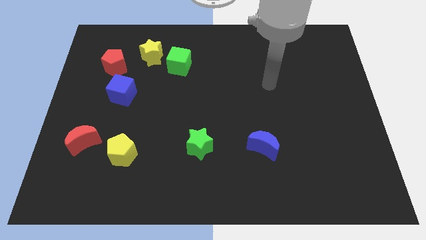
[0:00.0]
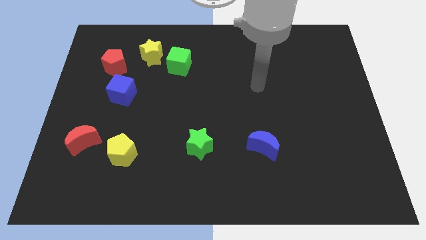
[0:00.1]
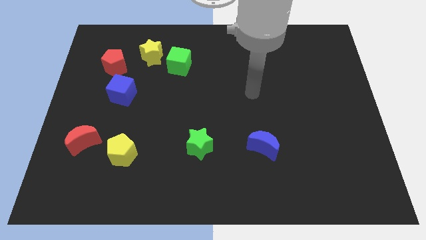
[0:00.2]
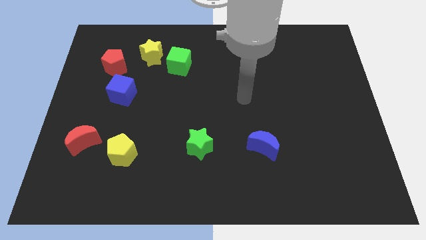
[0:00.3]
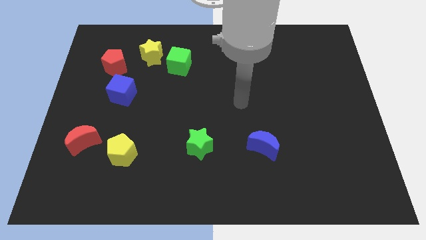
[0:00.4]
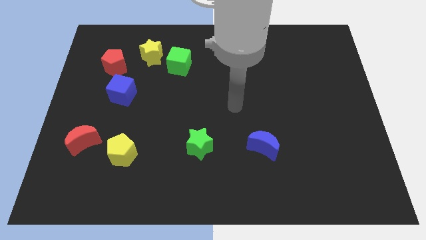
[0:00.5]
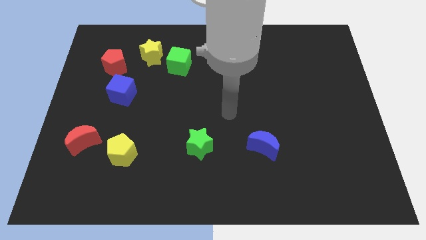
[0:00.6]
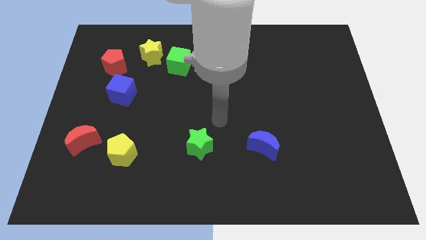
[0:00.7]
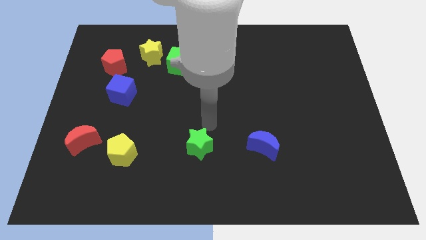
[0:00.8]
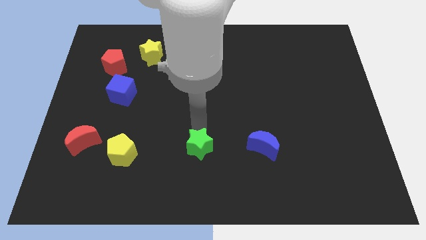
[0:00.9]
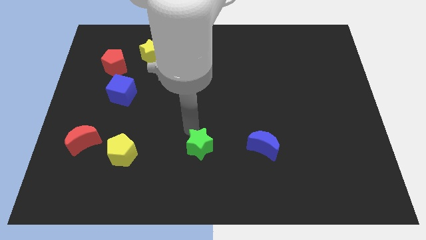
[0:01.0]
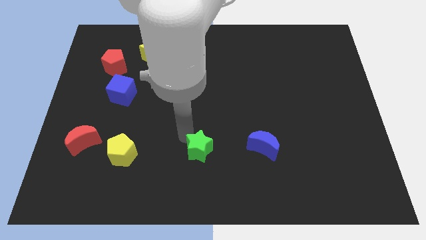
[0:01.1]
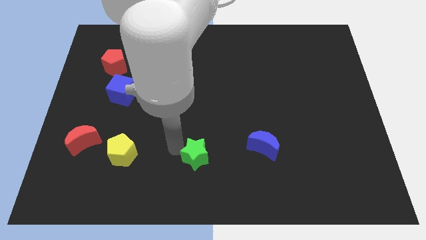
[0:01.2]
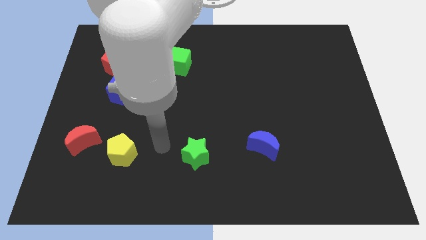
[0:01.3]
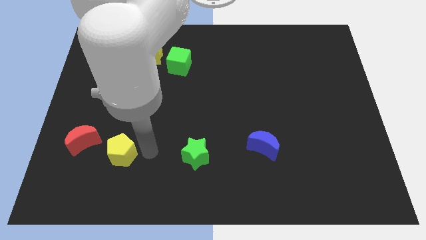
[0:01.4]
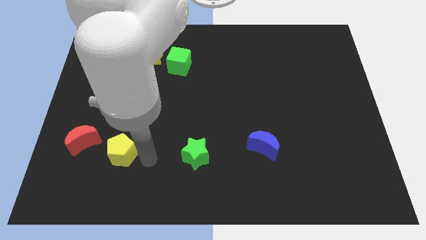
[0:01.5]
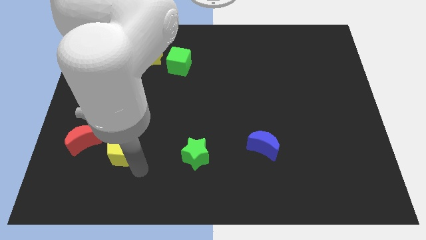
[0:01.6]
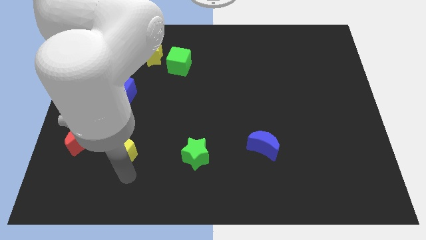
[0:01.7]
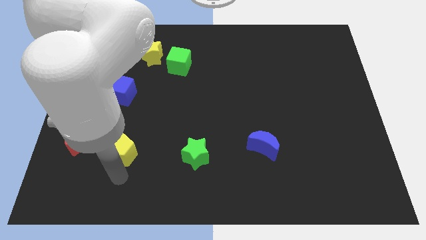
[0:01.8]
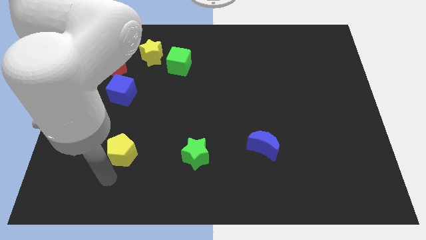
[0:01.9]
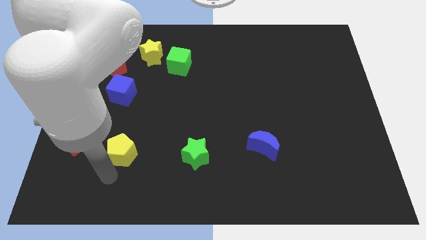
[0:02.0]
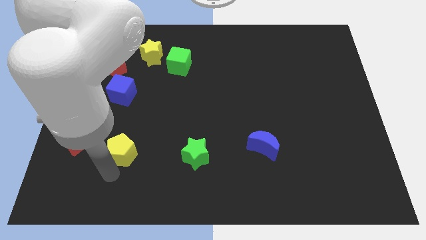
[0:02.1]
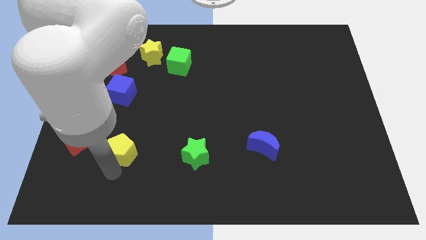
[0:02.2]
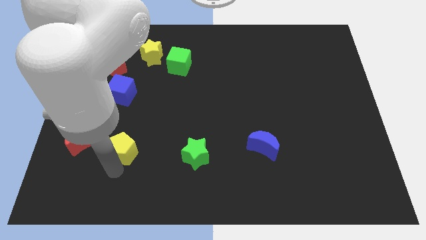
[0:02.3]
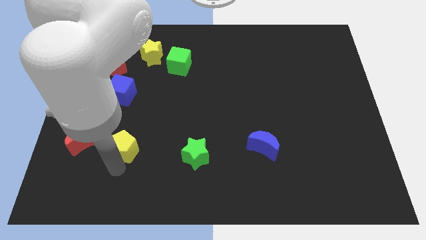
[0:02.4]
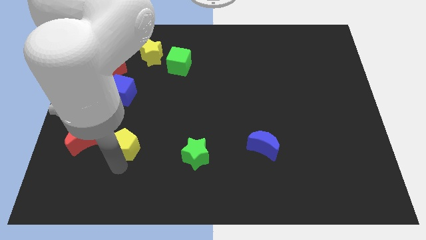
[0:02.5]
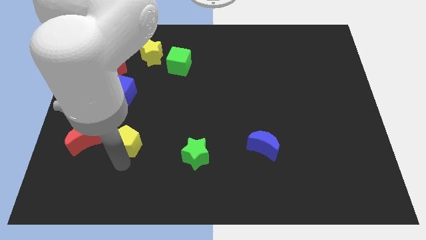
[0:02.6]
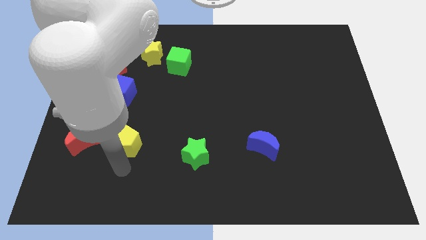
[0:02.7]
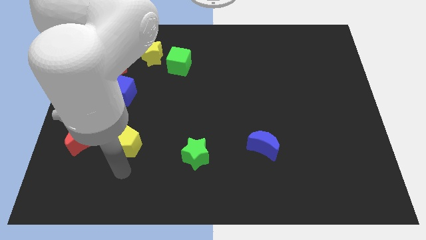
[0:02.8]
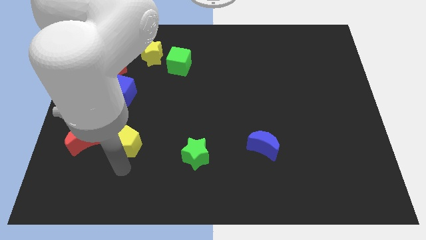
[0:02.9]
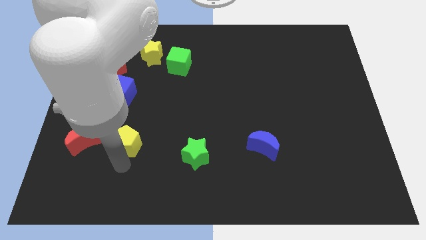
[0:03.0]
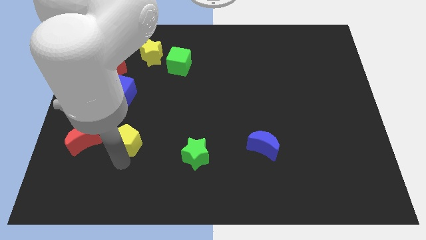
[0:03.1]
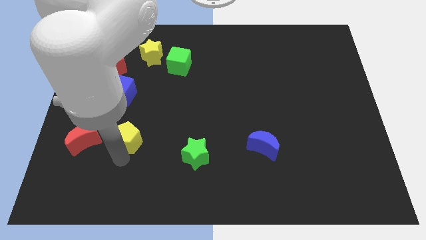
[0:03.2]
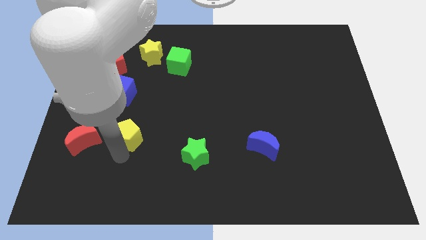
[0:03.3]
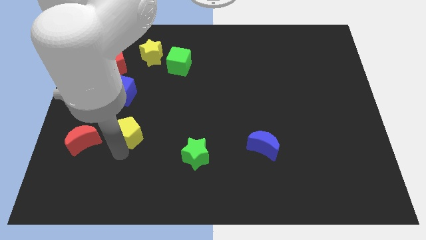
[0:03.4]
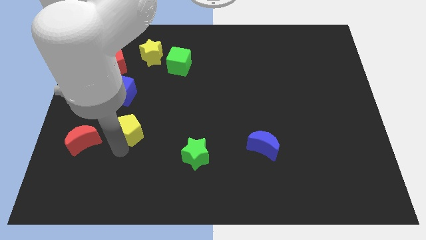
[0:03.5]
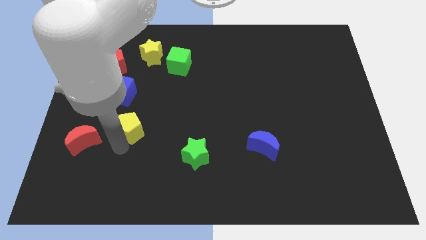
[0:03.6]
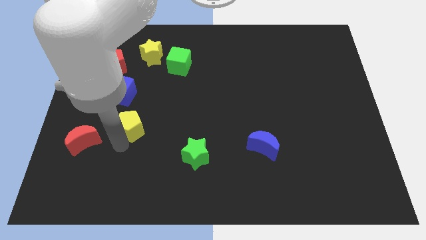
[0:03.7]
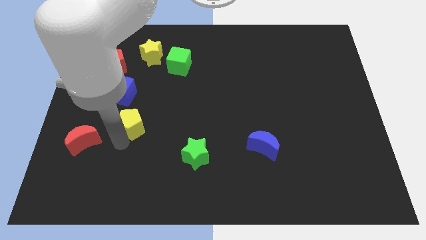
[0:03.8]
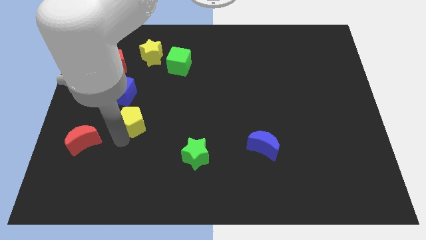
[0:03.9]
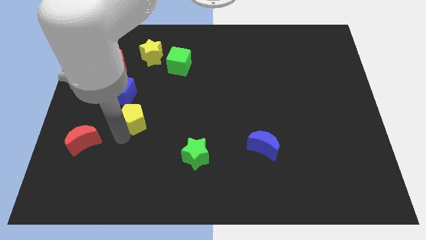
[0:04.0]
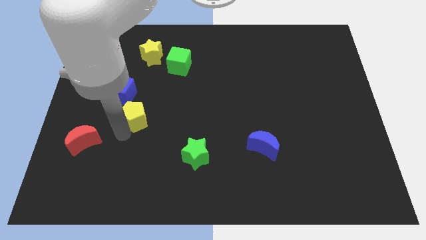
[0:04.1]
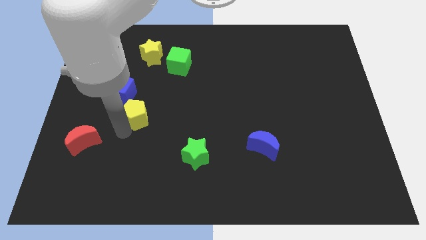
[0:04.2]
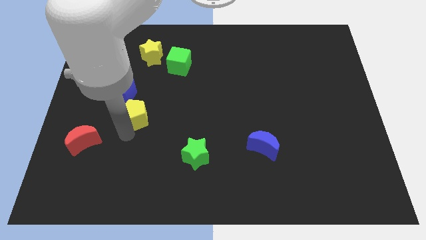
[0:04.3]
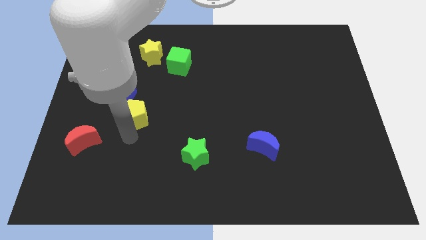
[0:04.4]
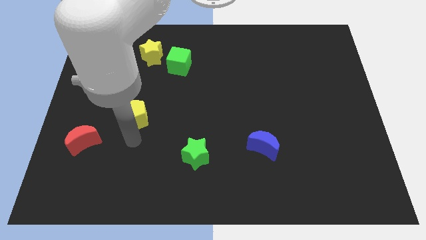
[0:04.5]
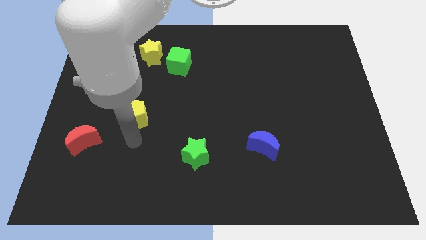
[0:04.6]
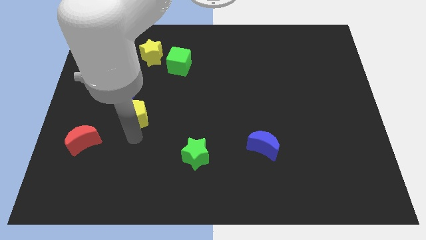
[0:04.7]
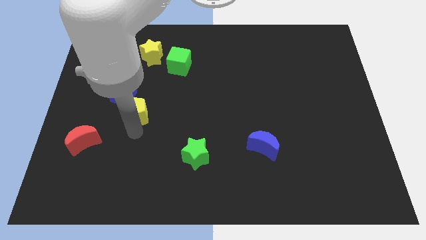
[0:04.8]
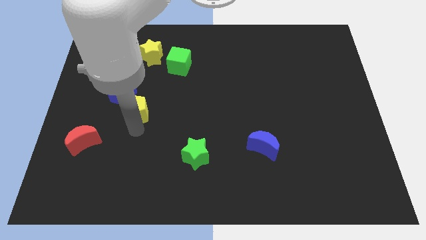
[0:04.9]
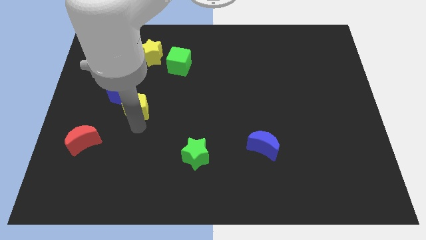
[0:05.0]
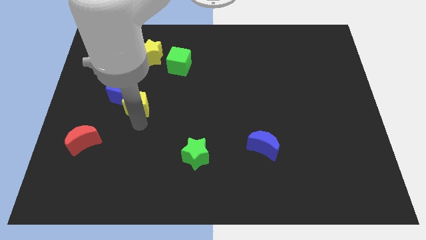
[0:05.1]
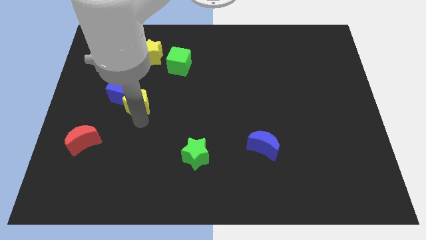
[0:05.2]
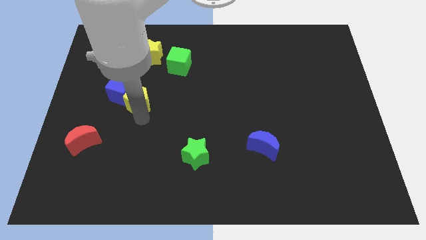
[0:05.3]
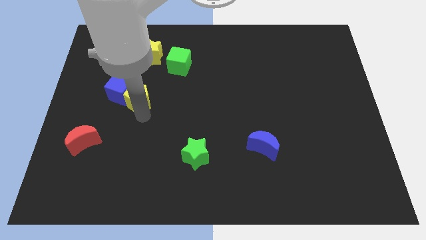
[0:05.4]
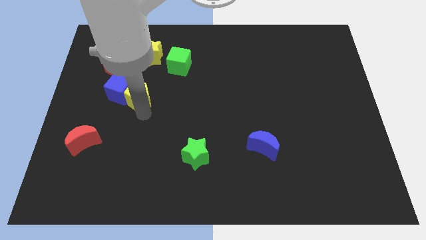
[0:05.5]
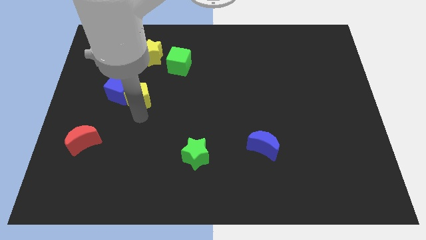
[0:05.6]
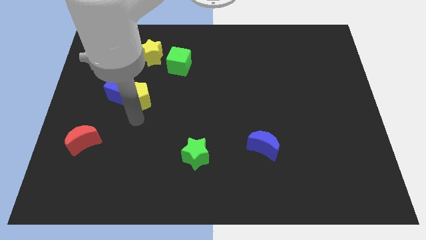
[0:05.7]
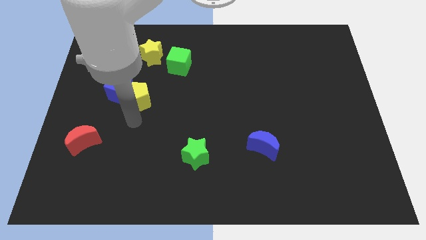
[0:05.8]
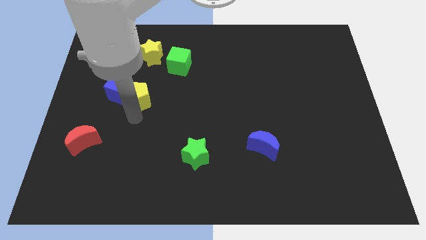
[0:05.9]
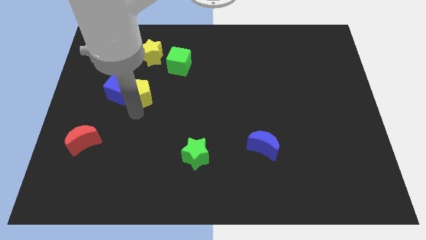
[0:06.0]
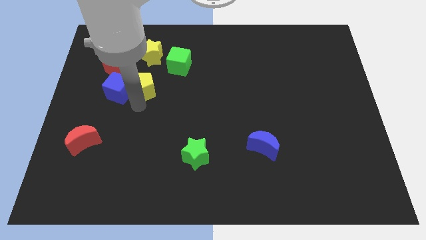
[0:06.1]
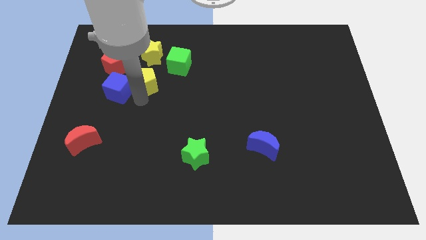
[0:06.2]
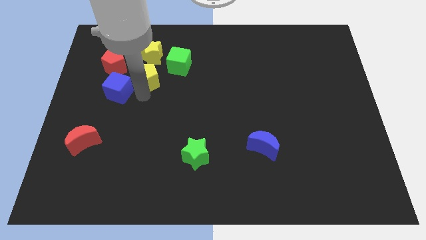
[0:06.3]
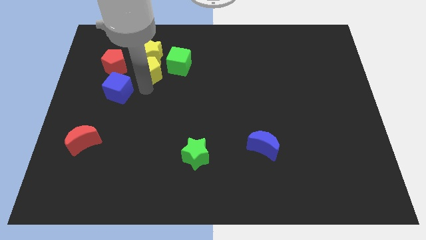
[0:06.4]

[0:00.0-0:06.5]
push the yellow pentagon towards the yellow star

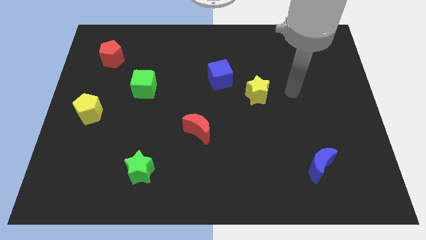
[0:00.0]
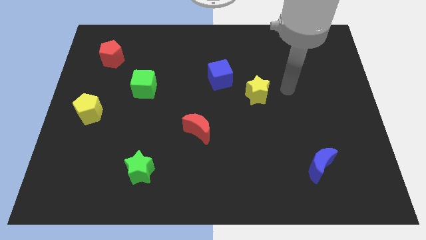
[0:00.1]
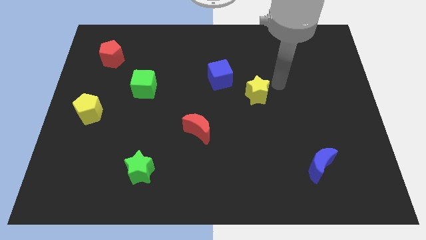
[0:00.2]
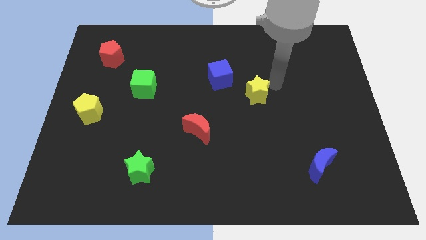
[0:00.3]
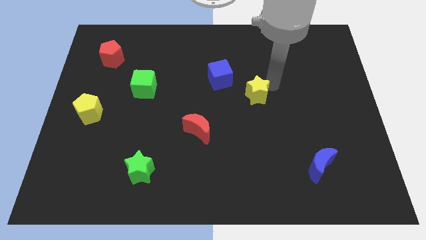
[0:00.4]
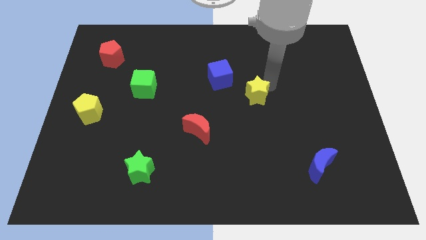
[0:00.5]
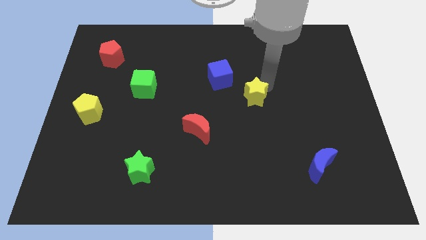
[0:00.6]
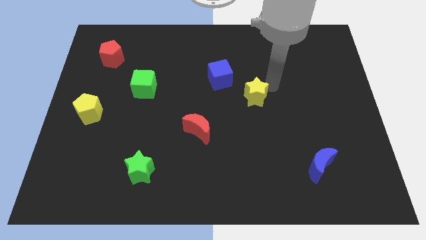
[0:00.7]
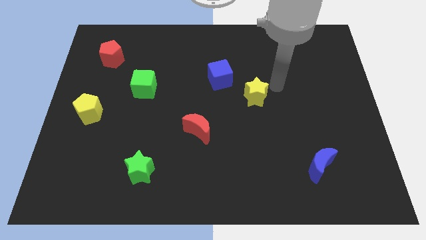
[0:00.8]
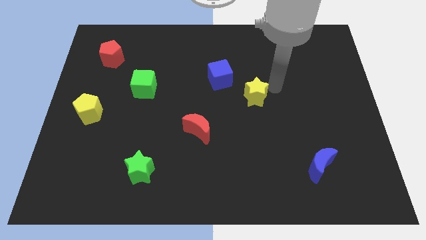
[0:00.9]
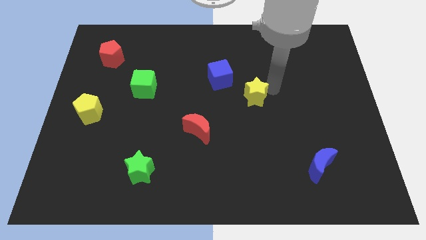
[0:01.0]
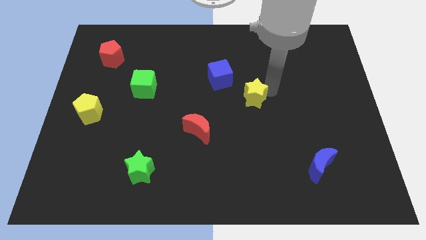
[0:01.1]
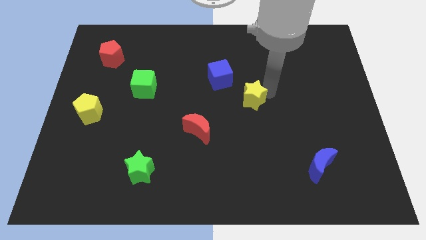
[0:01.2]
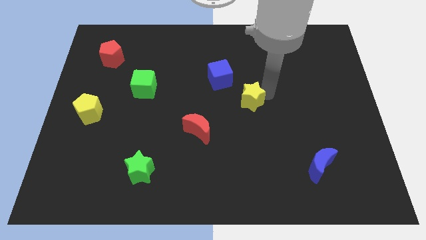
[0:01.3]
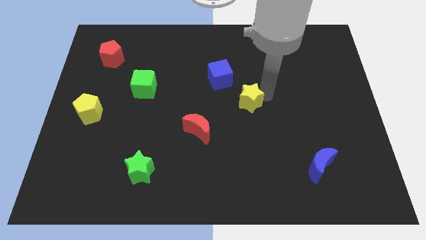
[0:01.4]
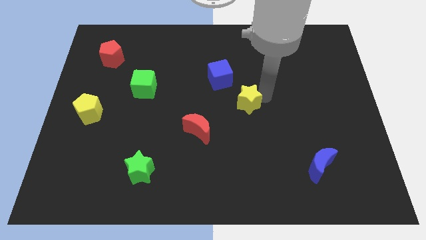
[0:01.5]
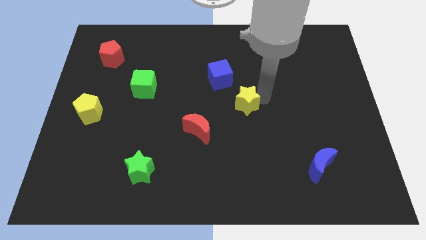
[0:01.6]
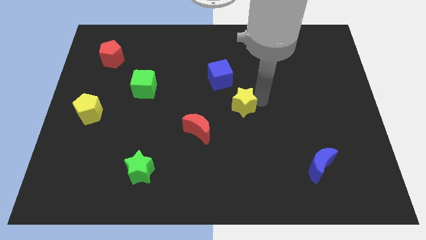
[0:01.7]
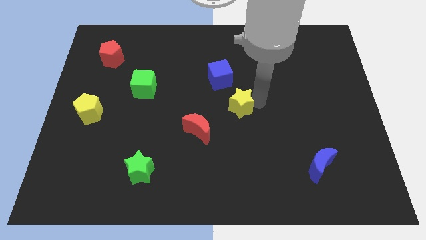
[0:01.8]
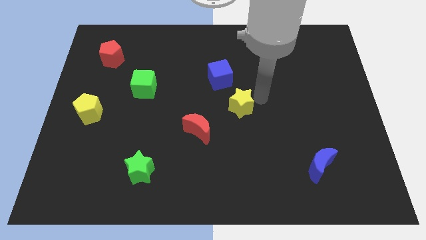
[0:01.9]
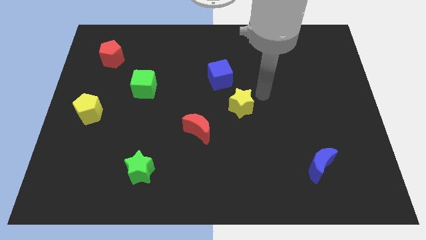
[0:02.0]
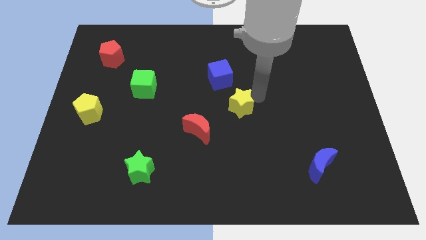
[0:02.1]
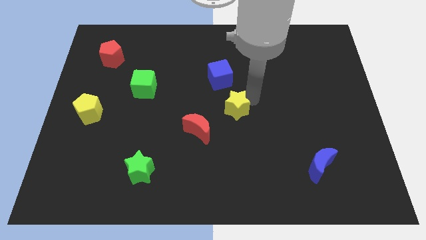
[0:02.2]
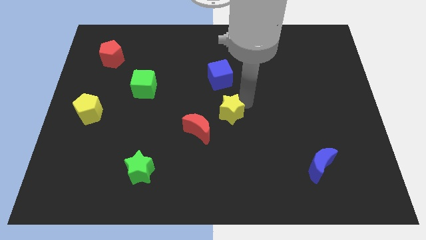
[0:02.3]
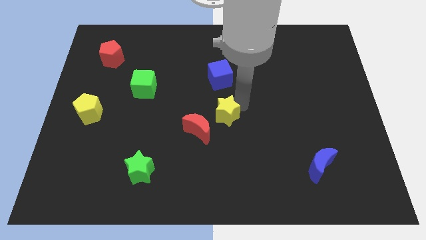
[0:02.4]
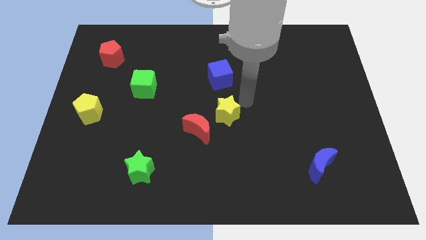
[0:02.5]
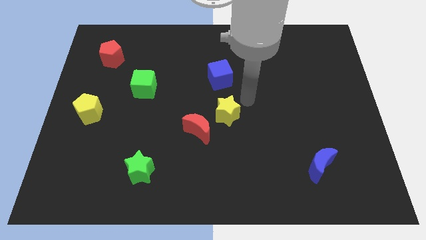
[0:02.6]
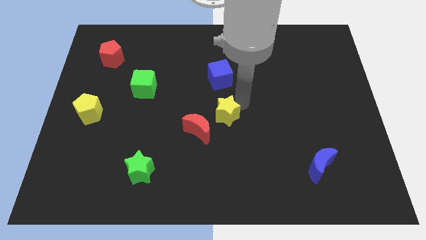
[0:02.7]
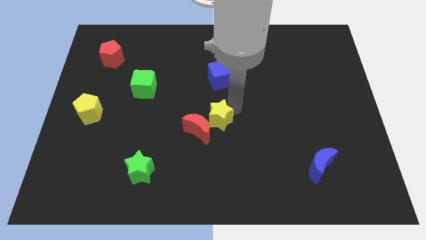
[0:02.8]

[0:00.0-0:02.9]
move the yellow star towards the red moon
